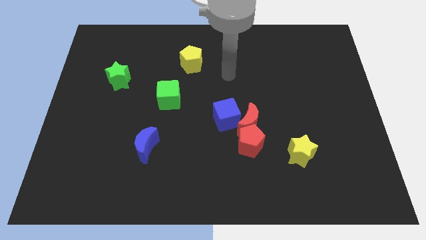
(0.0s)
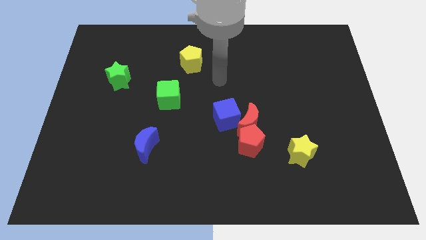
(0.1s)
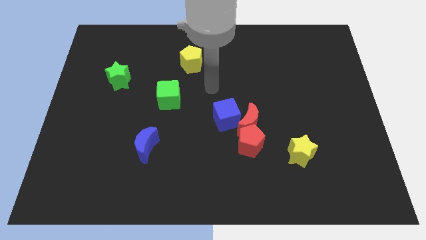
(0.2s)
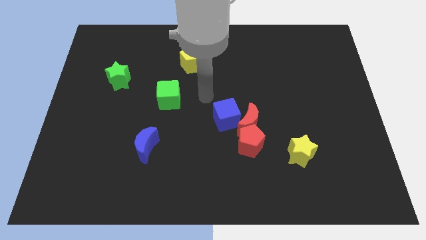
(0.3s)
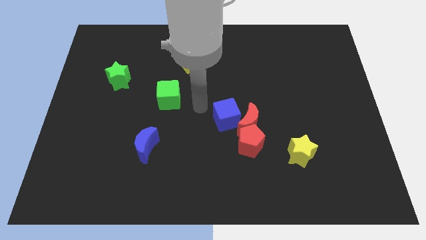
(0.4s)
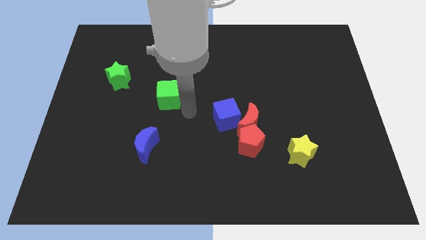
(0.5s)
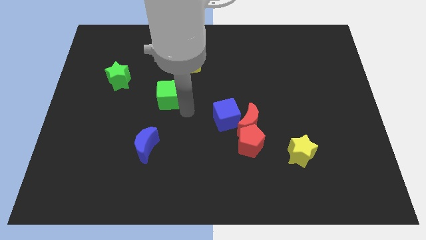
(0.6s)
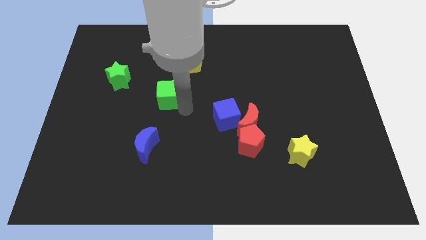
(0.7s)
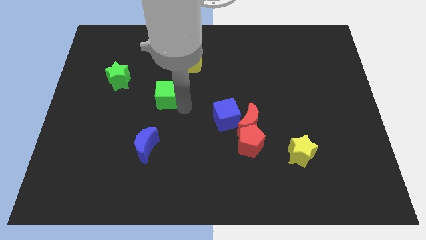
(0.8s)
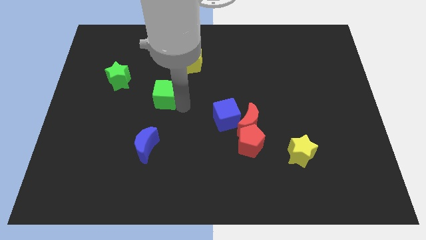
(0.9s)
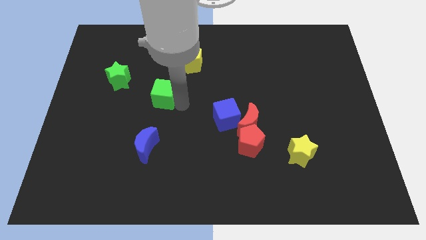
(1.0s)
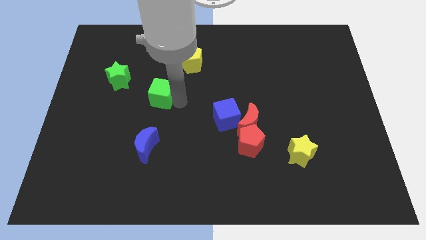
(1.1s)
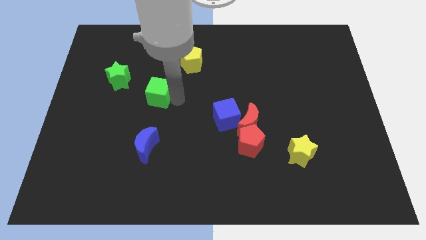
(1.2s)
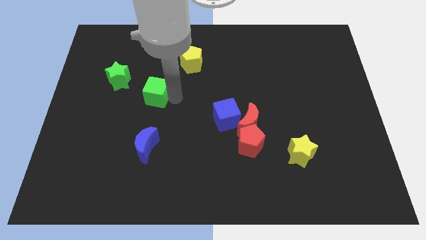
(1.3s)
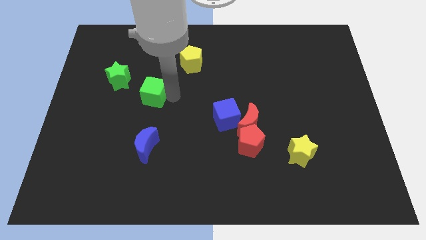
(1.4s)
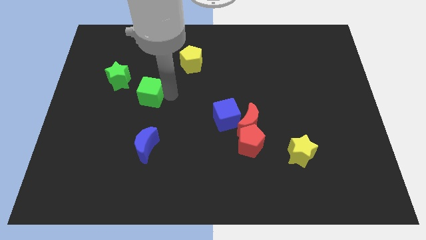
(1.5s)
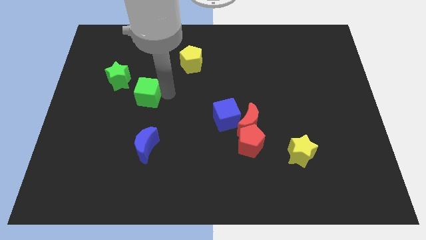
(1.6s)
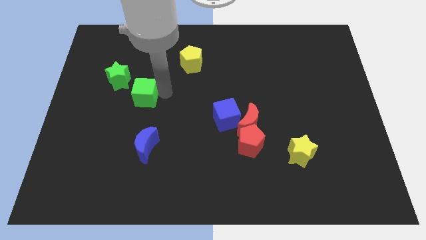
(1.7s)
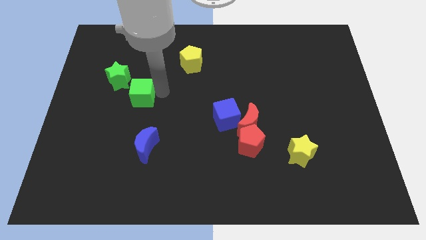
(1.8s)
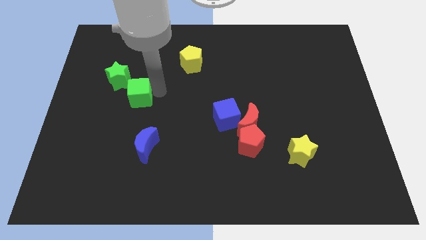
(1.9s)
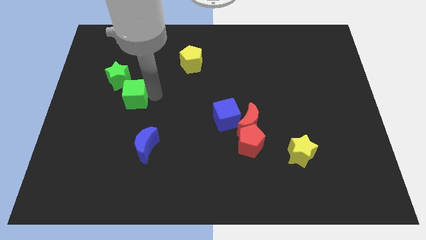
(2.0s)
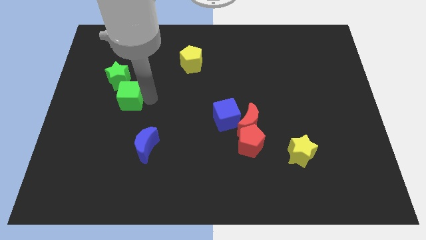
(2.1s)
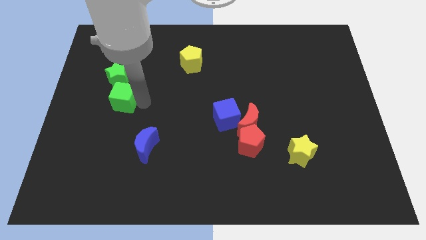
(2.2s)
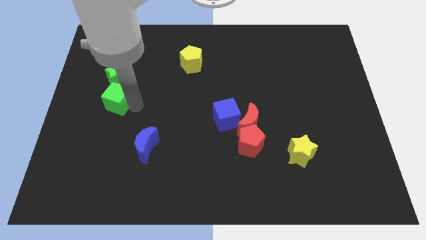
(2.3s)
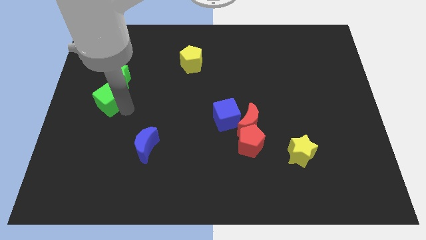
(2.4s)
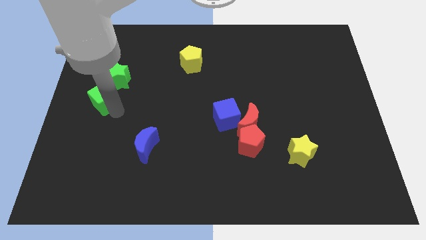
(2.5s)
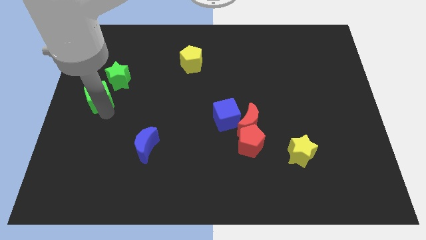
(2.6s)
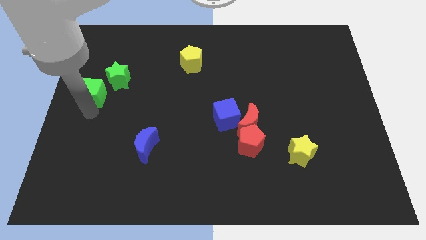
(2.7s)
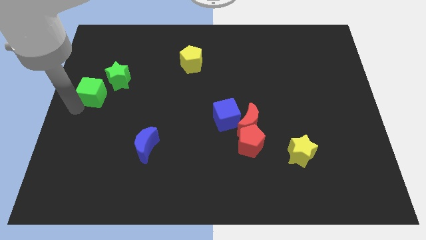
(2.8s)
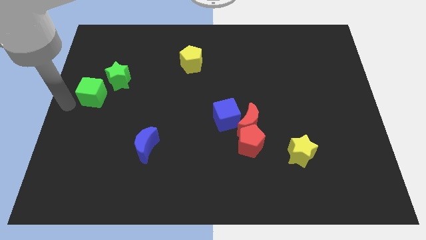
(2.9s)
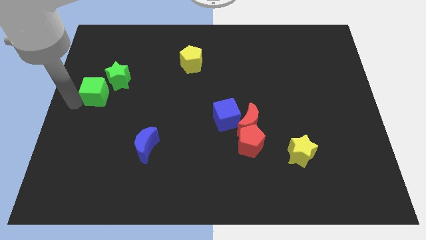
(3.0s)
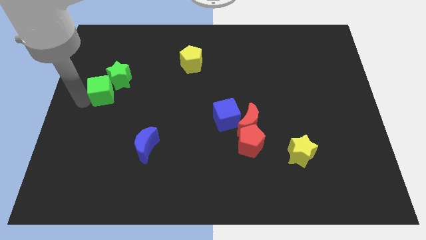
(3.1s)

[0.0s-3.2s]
move the green cube up and then left slightly

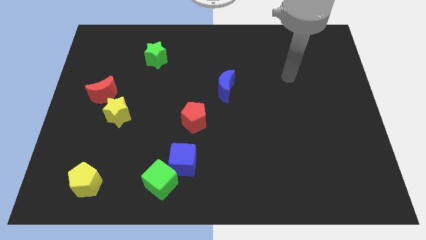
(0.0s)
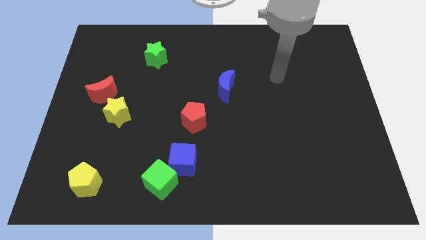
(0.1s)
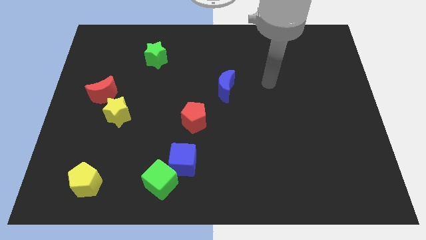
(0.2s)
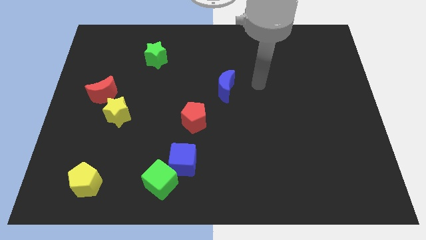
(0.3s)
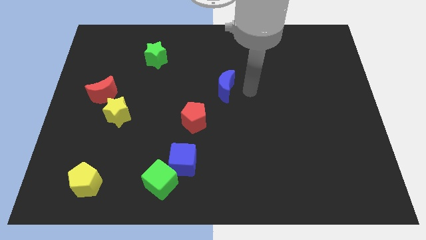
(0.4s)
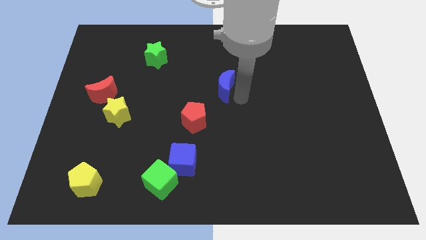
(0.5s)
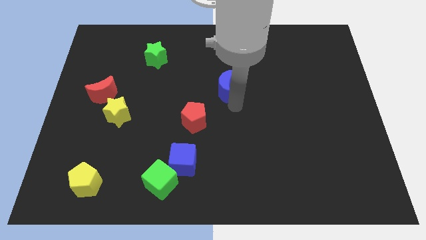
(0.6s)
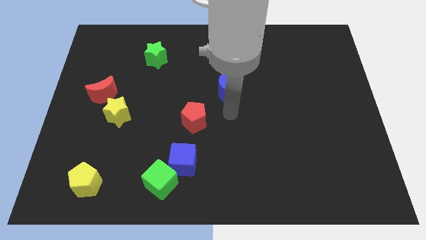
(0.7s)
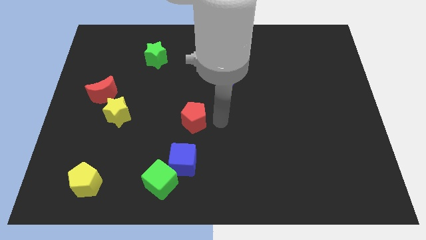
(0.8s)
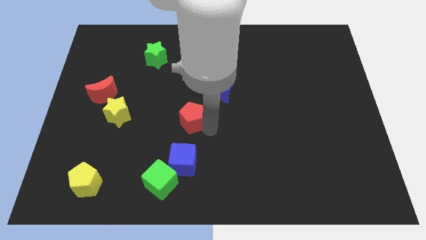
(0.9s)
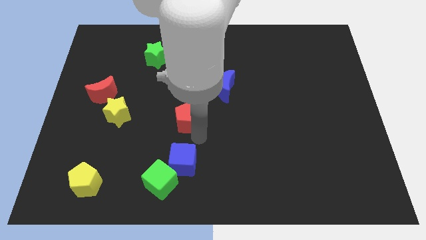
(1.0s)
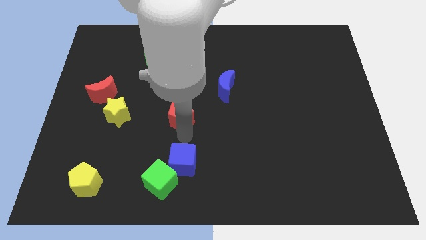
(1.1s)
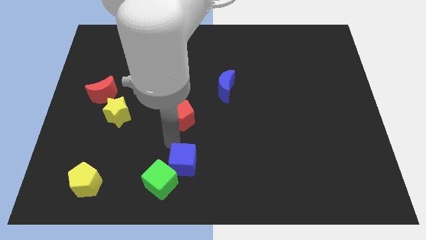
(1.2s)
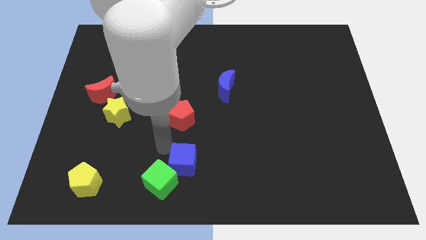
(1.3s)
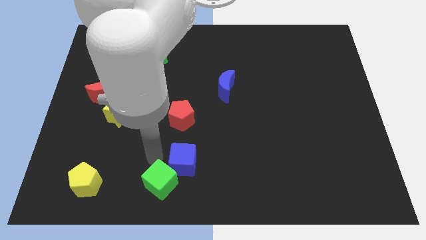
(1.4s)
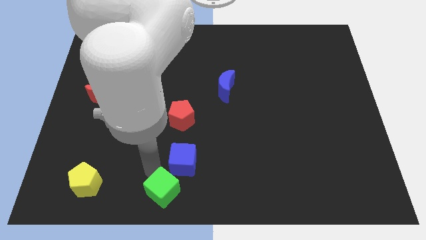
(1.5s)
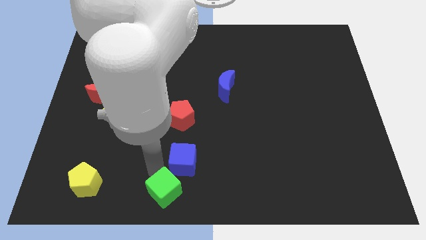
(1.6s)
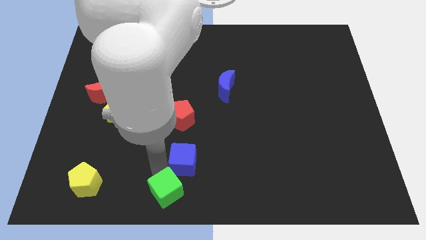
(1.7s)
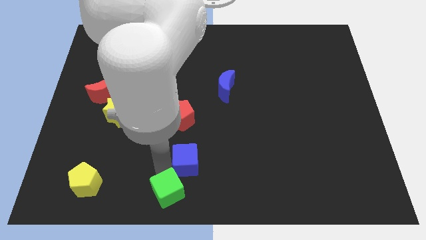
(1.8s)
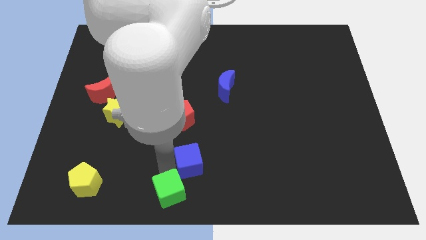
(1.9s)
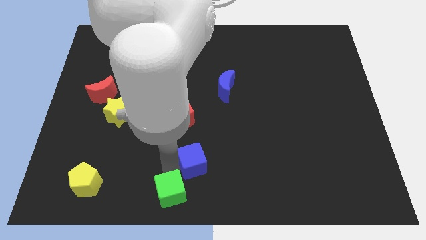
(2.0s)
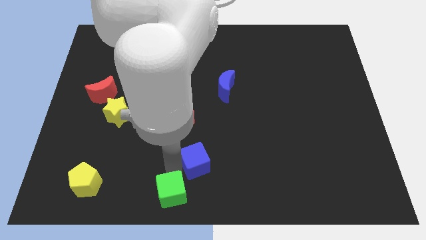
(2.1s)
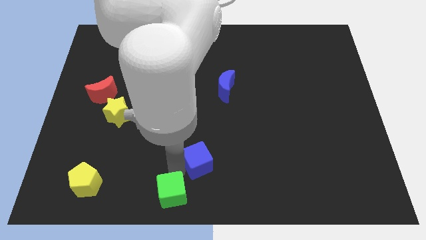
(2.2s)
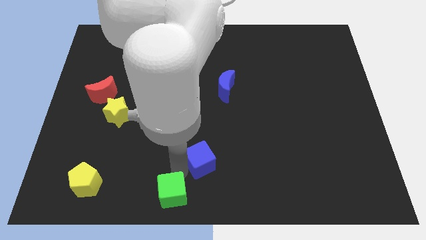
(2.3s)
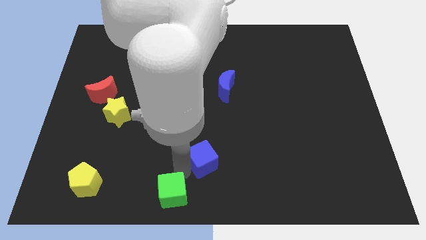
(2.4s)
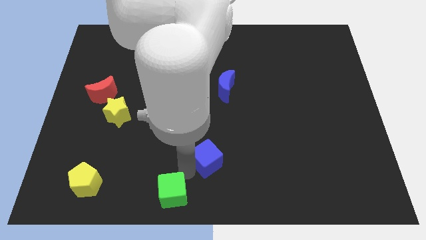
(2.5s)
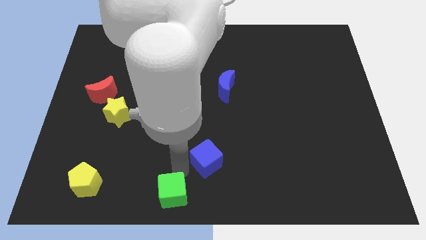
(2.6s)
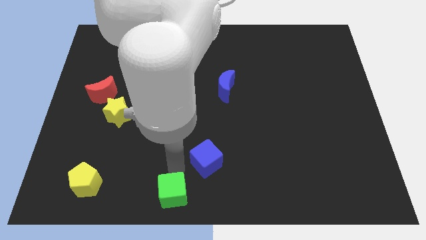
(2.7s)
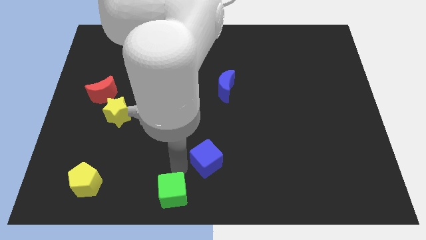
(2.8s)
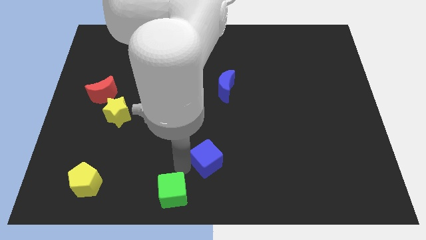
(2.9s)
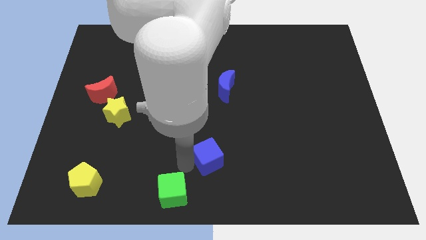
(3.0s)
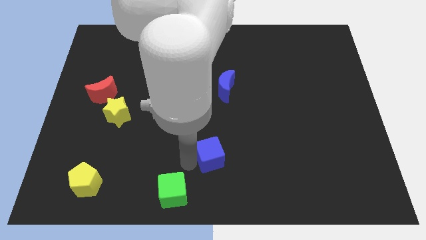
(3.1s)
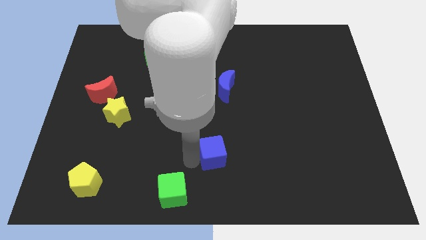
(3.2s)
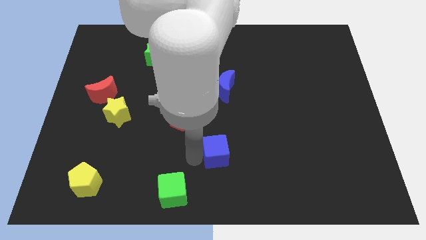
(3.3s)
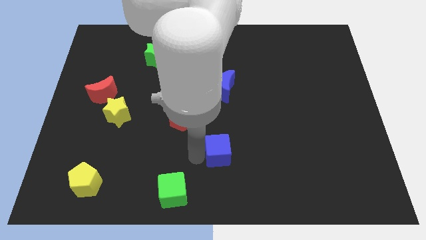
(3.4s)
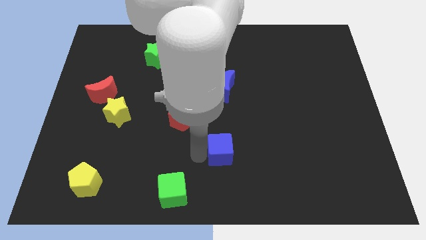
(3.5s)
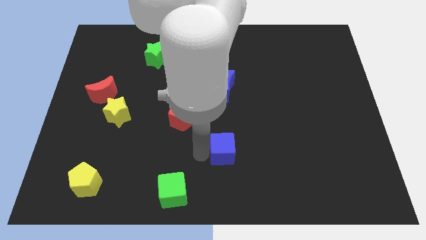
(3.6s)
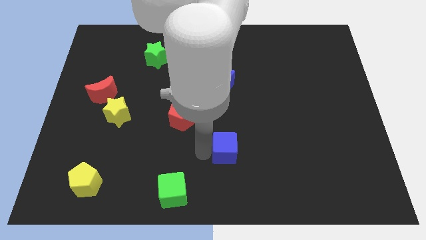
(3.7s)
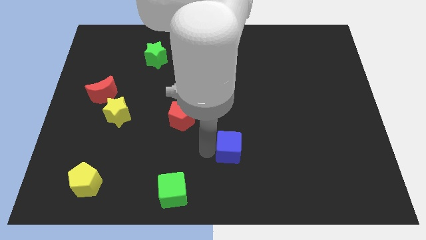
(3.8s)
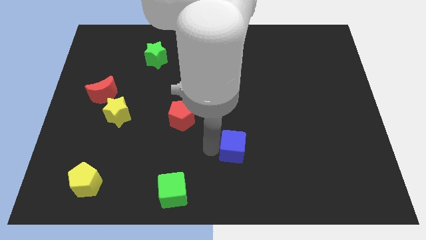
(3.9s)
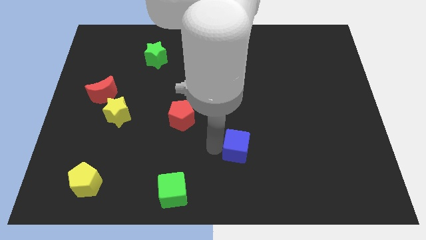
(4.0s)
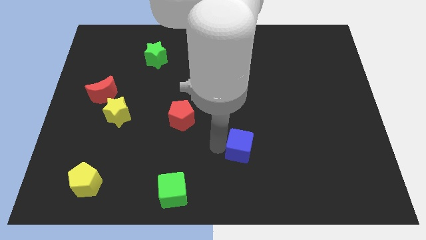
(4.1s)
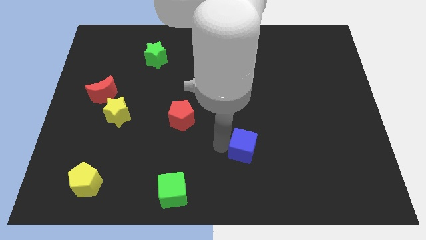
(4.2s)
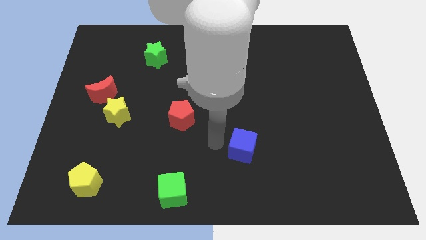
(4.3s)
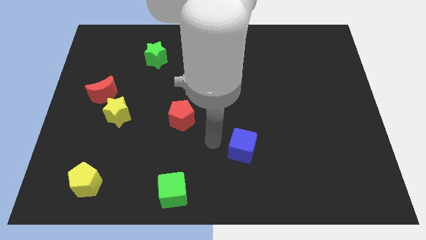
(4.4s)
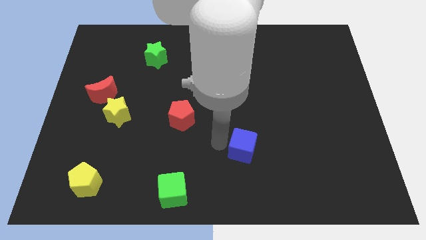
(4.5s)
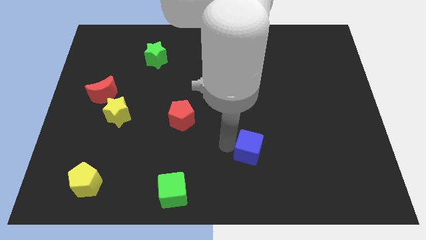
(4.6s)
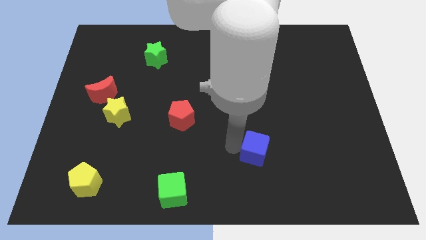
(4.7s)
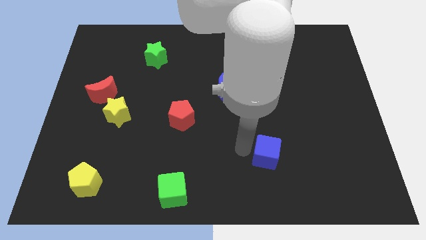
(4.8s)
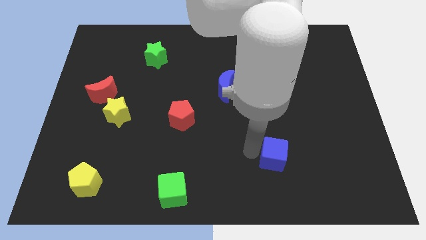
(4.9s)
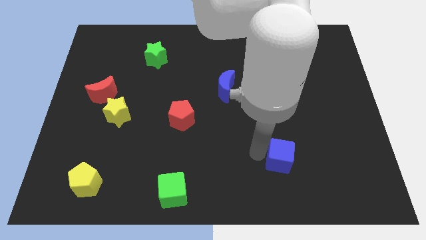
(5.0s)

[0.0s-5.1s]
slide the blue cube right
